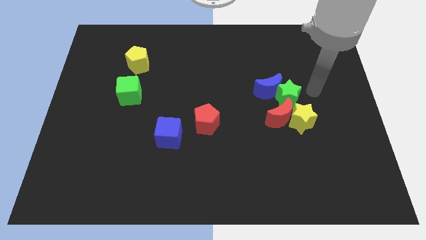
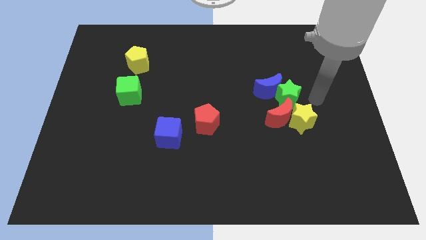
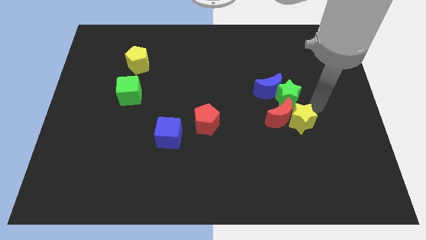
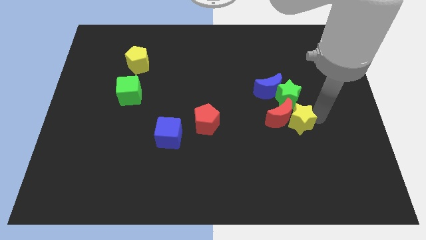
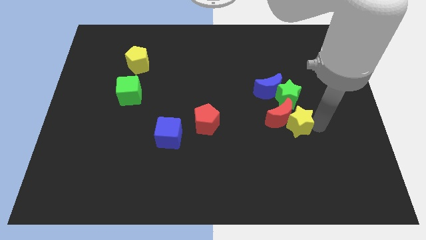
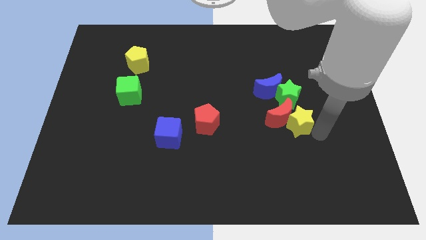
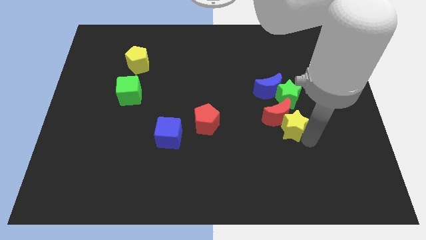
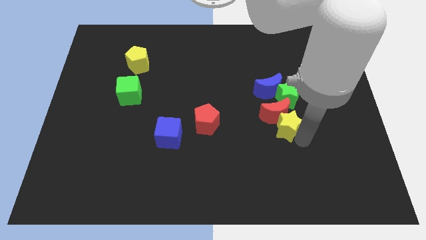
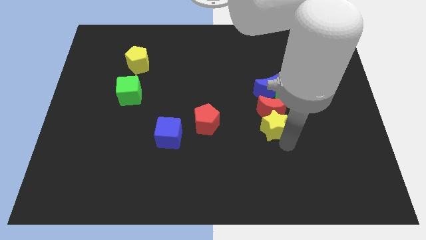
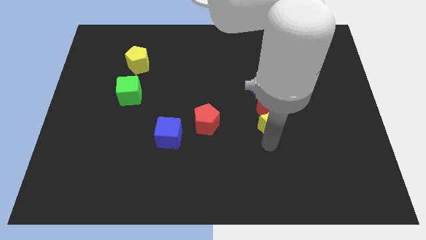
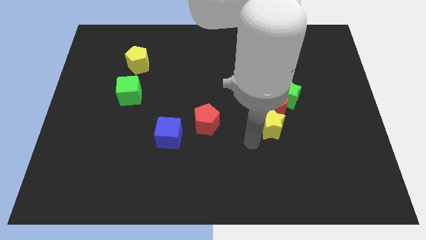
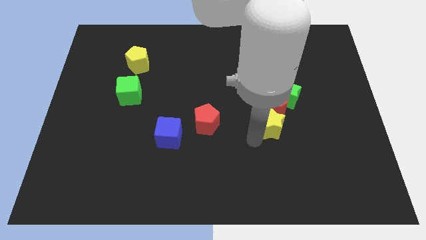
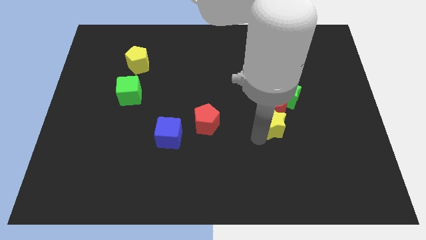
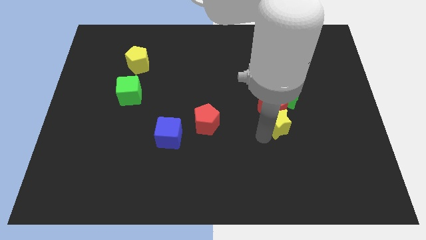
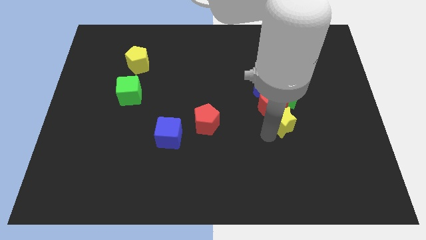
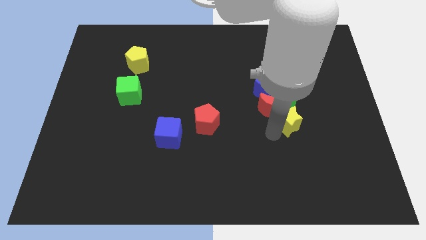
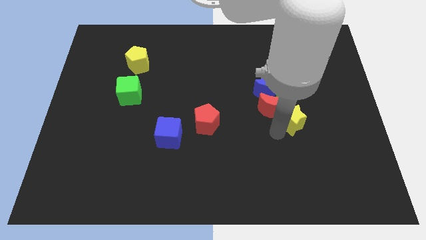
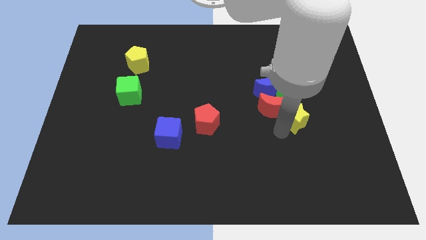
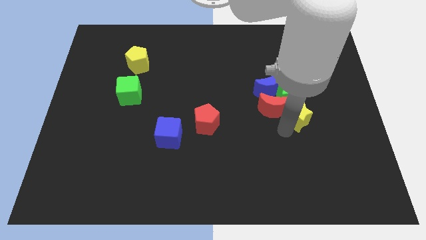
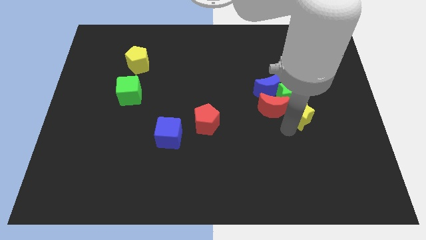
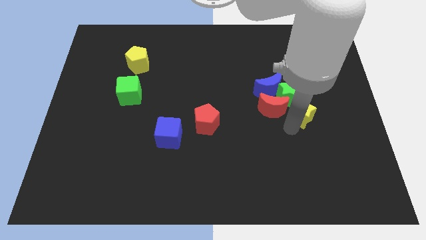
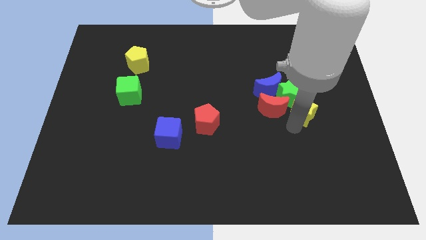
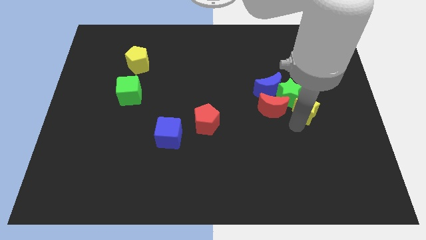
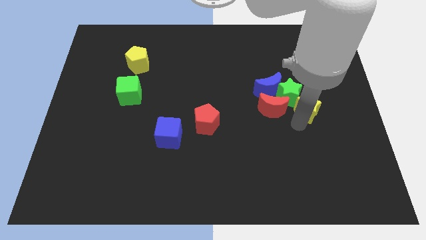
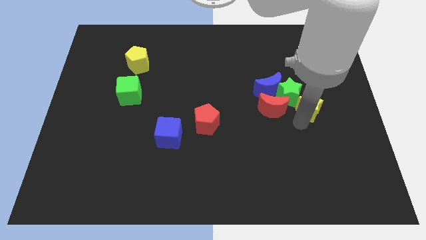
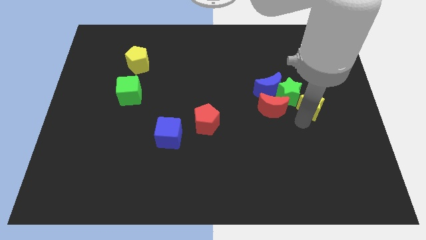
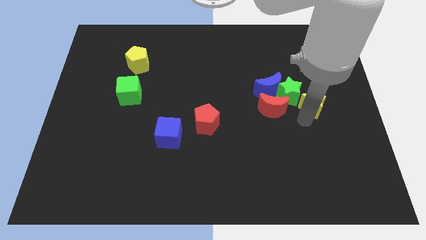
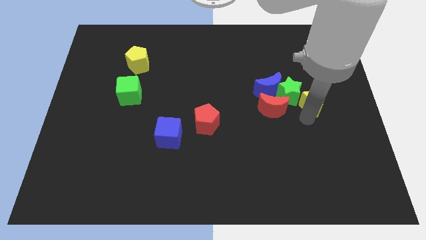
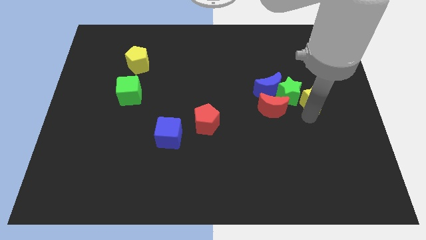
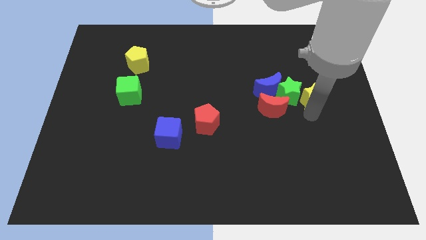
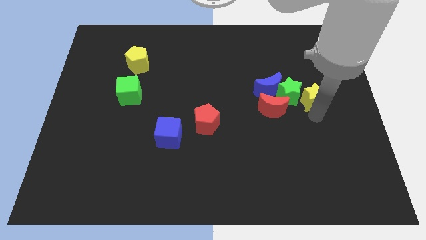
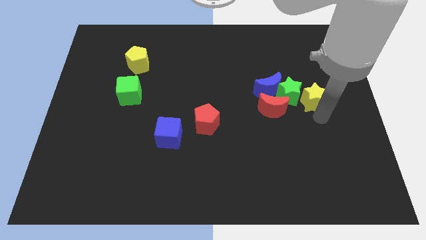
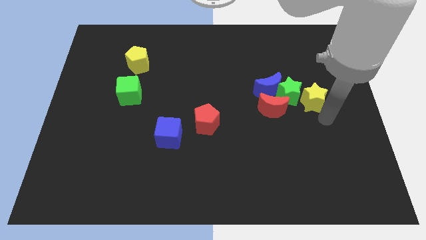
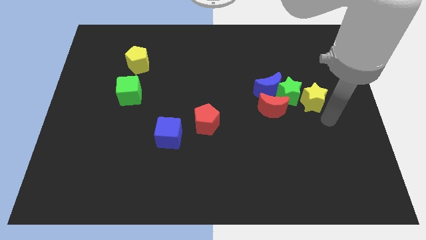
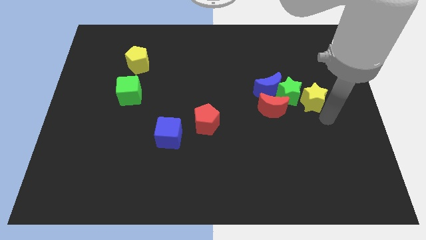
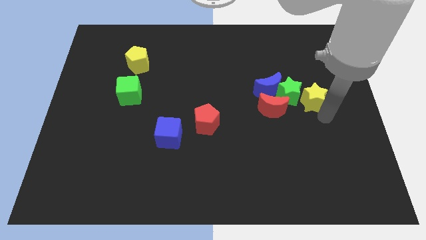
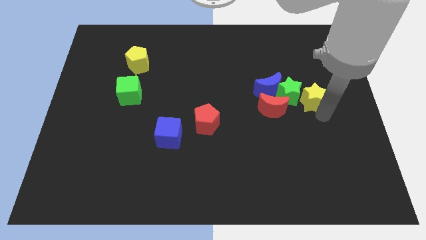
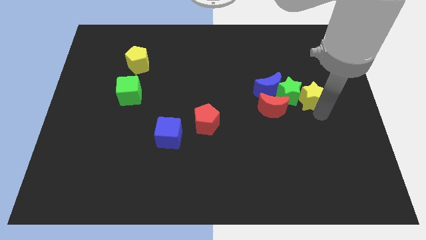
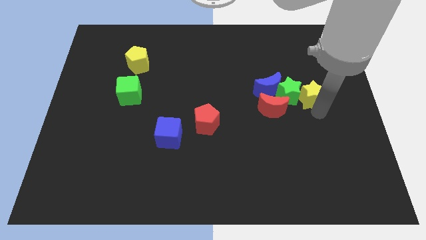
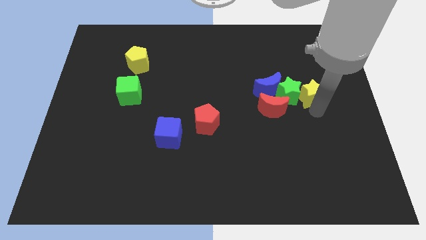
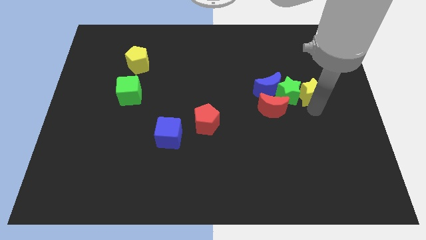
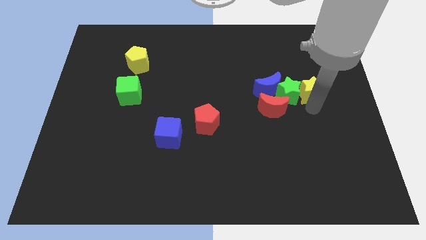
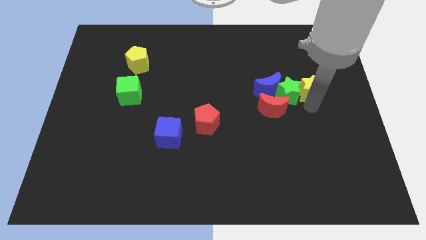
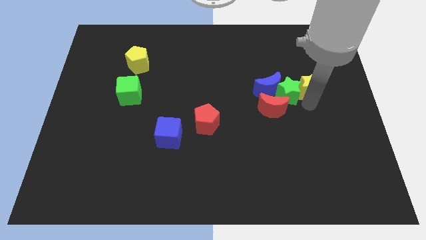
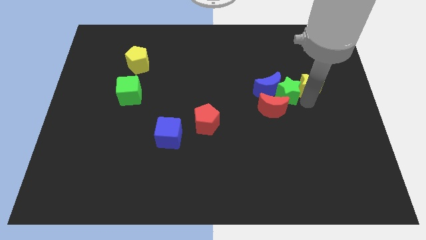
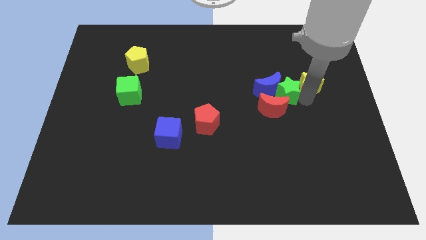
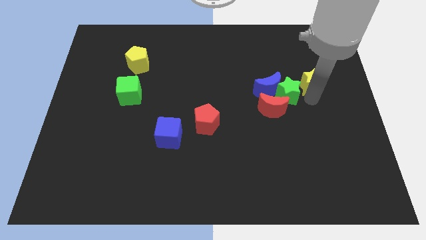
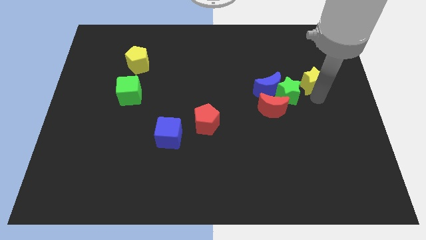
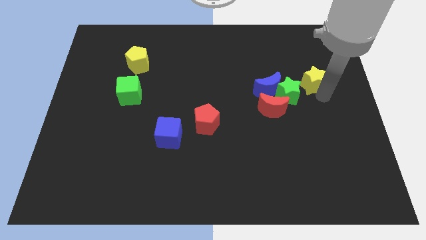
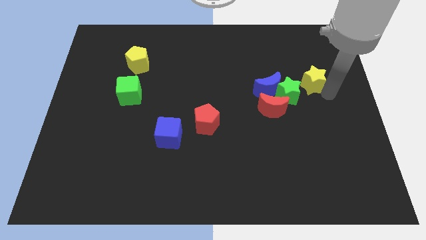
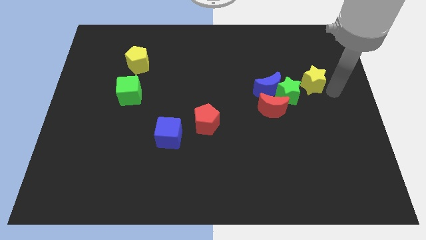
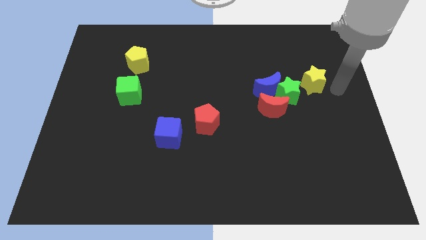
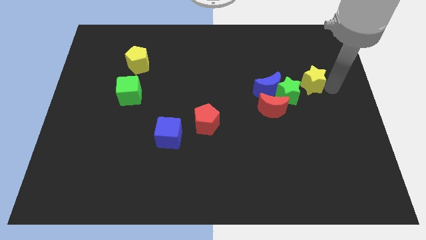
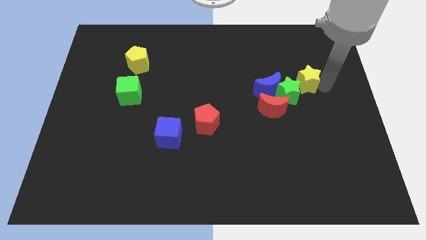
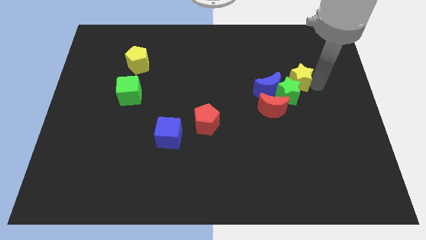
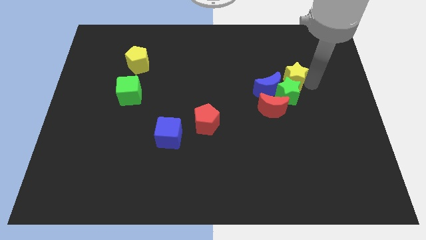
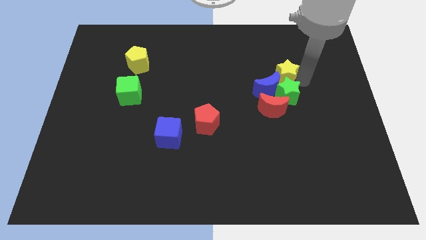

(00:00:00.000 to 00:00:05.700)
move the yellow star slightly up and then to the left

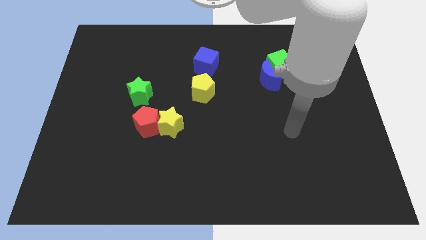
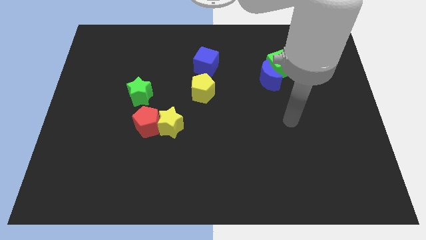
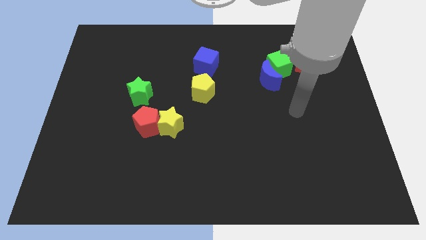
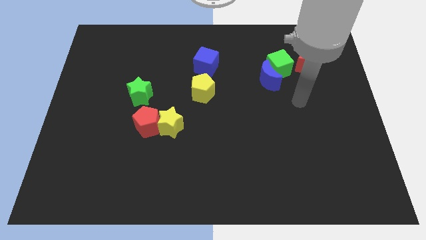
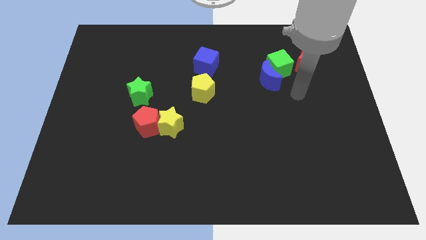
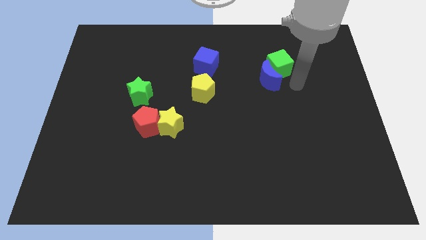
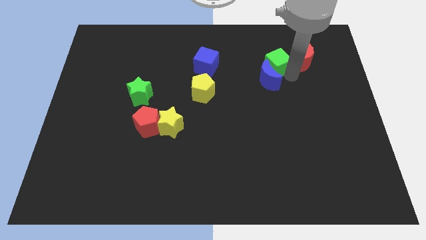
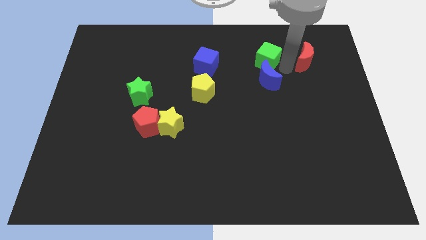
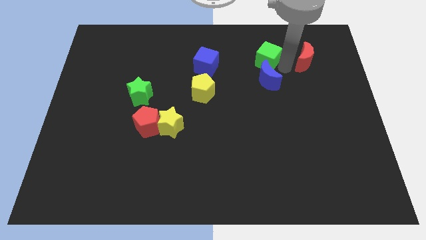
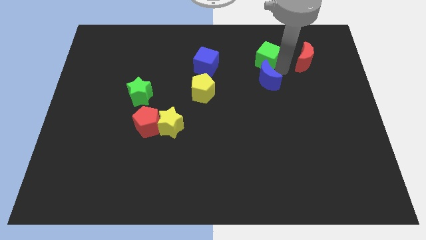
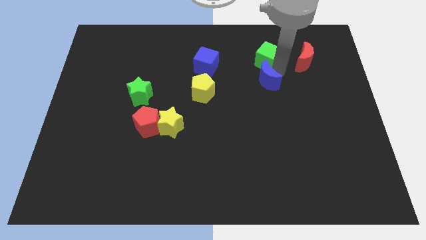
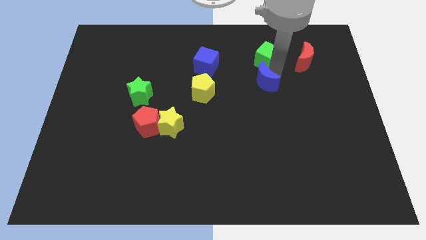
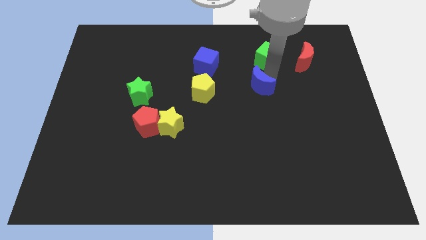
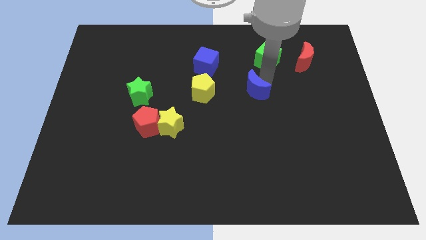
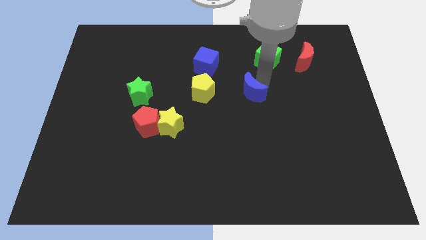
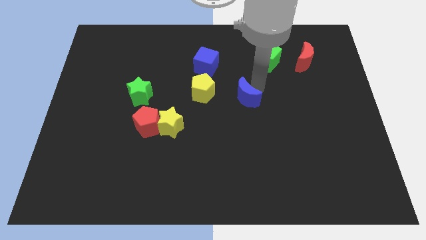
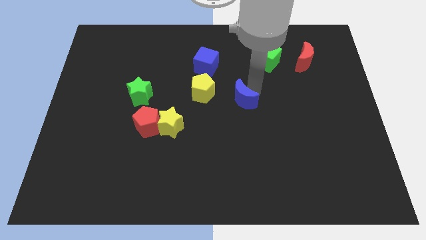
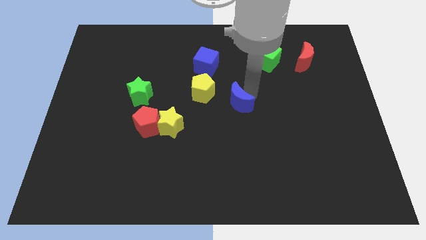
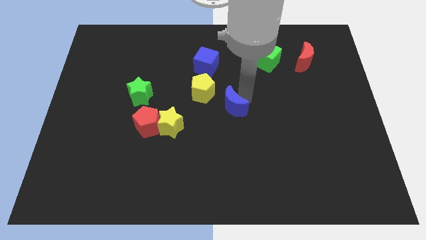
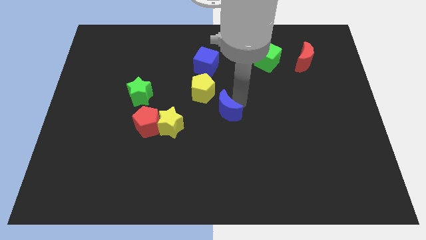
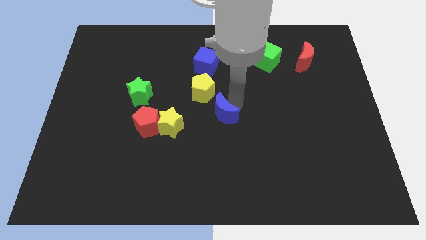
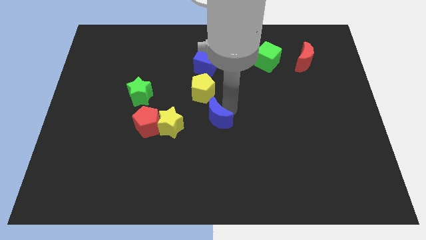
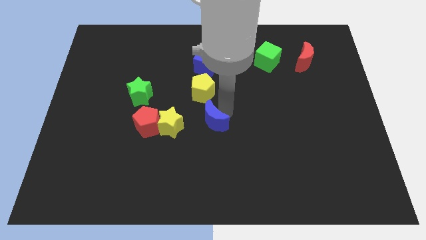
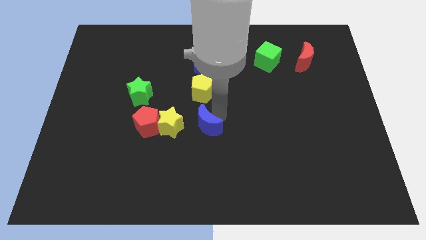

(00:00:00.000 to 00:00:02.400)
push the blue moon downwards and then left
